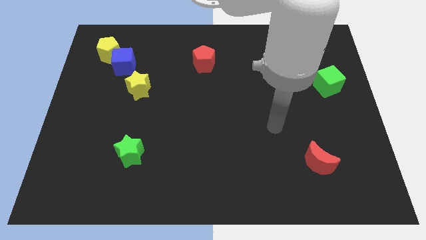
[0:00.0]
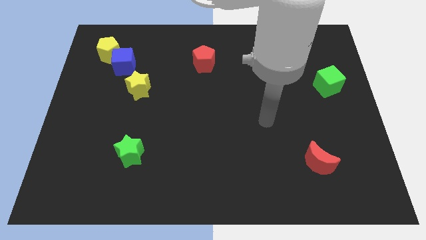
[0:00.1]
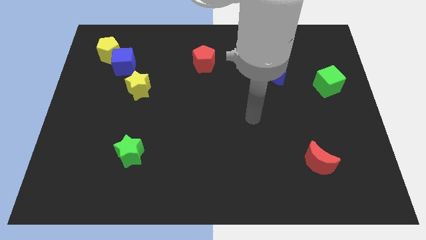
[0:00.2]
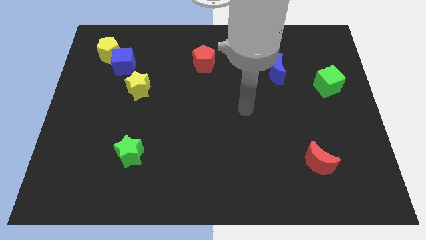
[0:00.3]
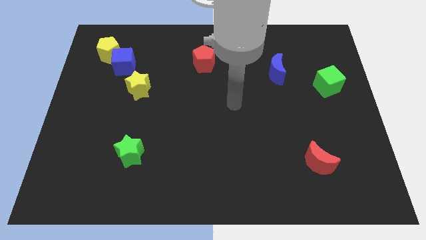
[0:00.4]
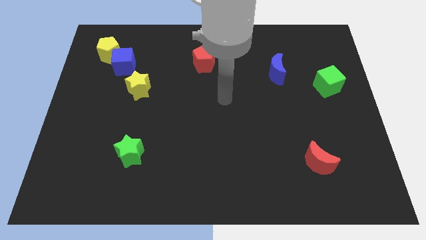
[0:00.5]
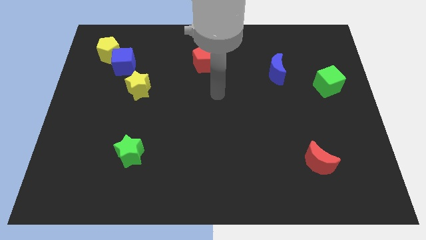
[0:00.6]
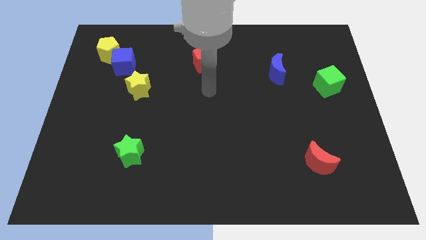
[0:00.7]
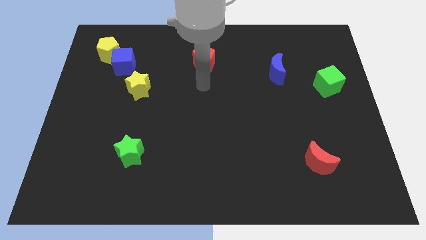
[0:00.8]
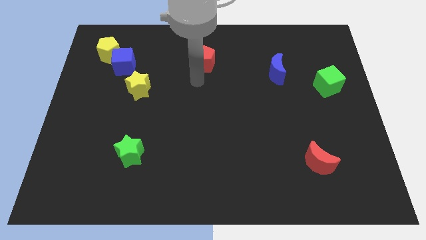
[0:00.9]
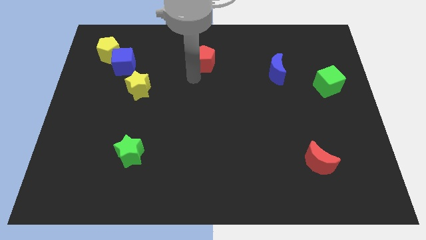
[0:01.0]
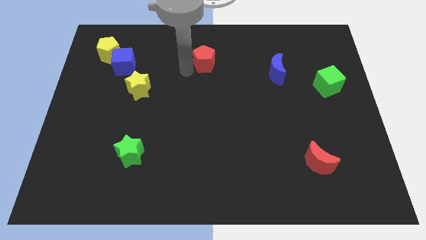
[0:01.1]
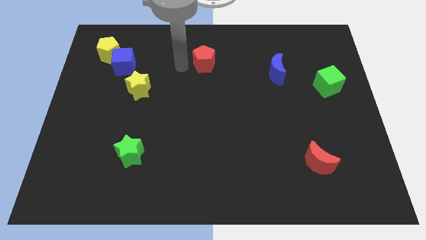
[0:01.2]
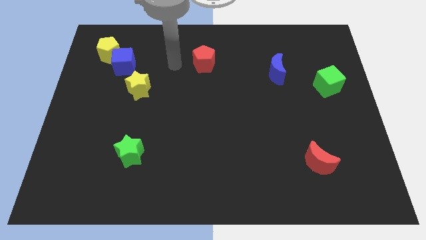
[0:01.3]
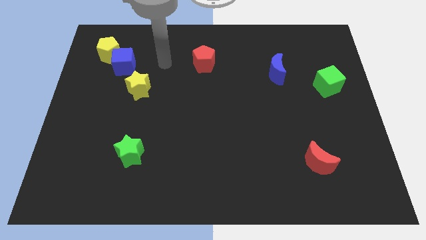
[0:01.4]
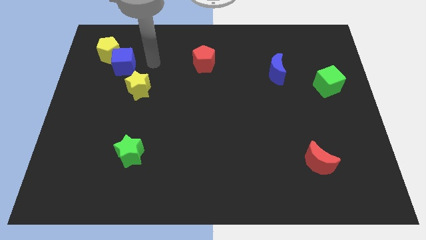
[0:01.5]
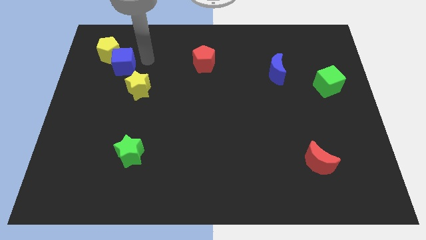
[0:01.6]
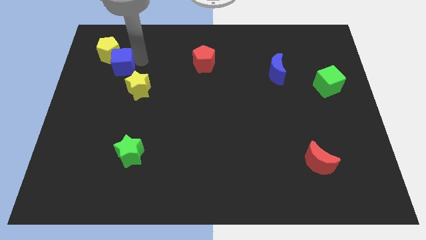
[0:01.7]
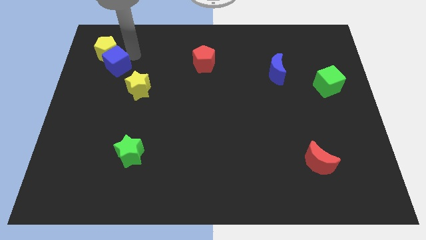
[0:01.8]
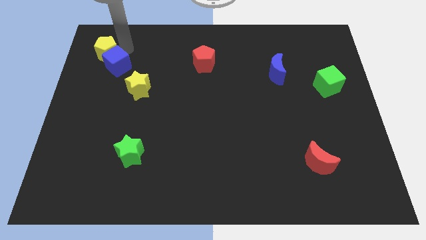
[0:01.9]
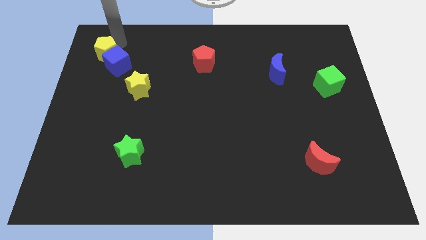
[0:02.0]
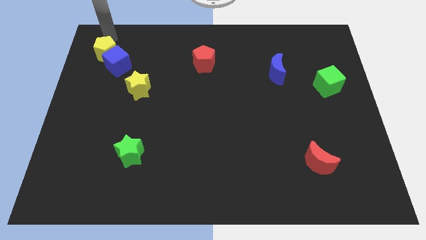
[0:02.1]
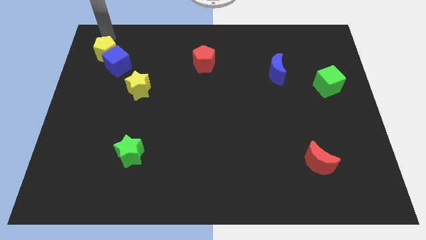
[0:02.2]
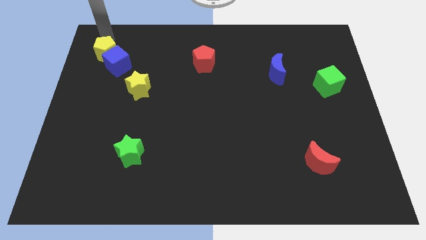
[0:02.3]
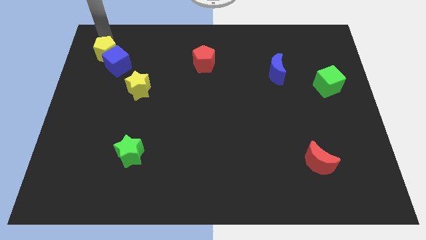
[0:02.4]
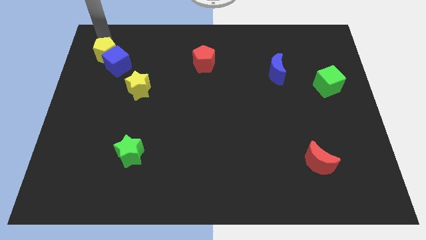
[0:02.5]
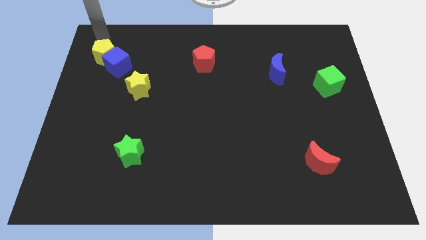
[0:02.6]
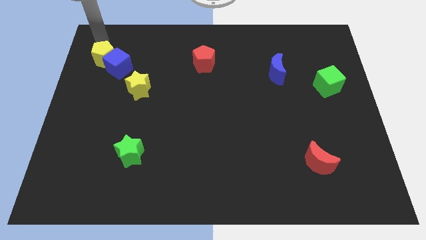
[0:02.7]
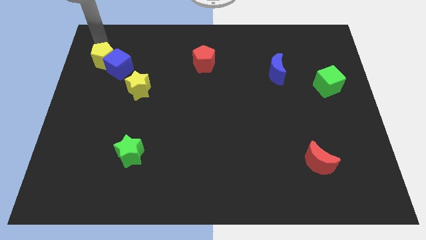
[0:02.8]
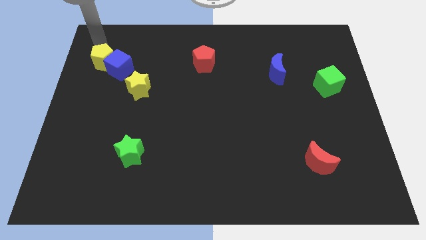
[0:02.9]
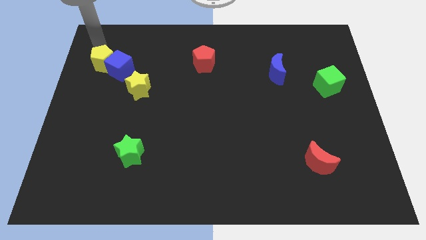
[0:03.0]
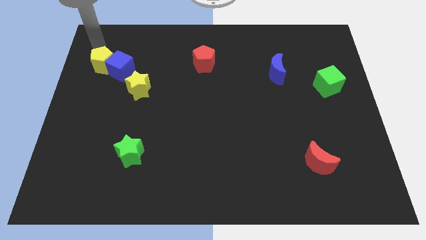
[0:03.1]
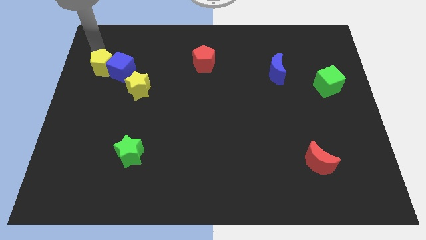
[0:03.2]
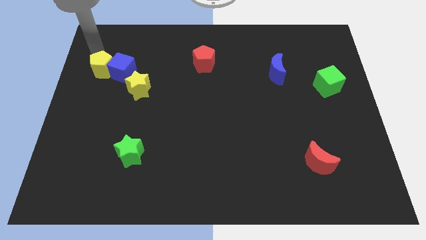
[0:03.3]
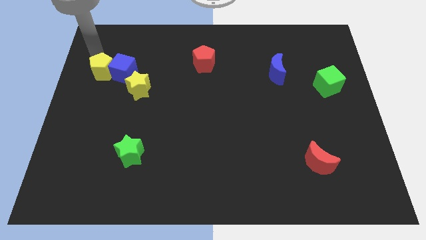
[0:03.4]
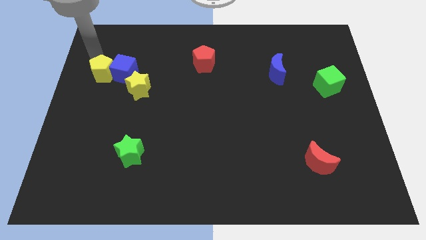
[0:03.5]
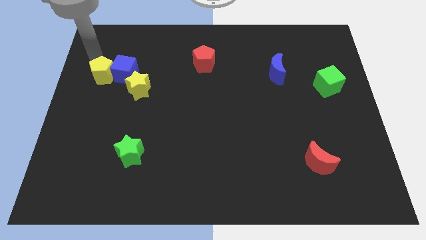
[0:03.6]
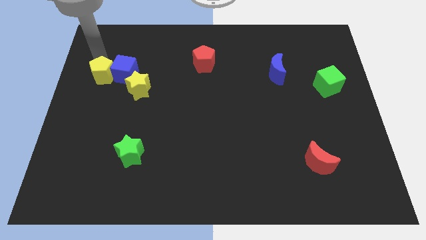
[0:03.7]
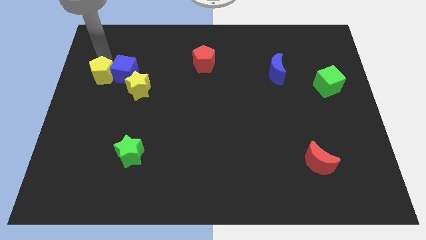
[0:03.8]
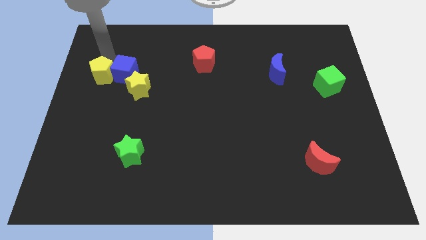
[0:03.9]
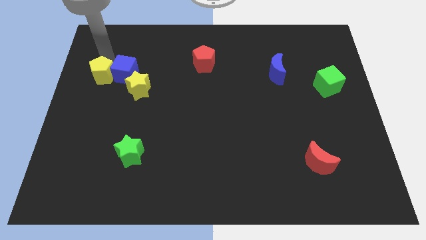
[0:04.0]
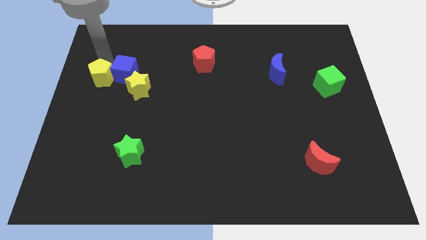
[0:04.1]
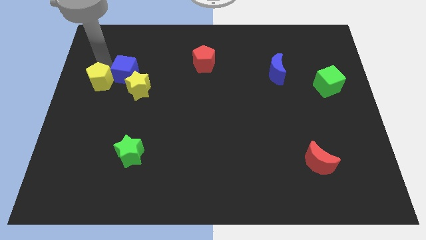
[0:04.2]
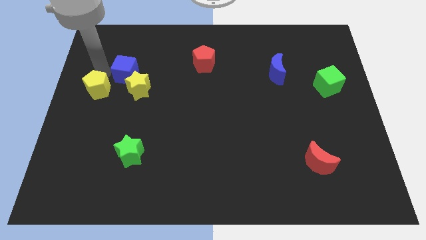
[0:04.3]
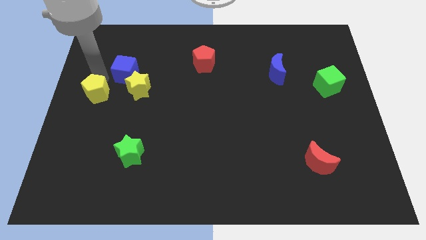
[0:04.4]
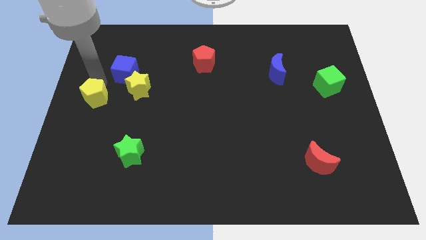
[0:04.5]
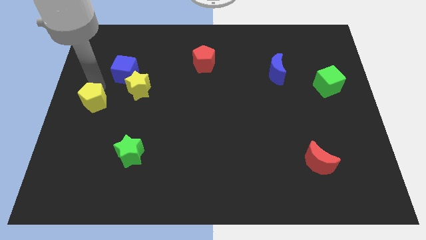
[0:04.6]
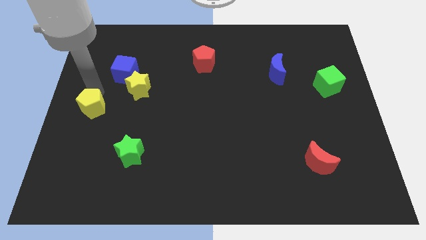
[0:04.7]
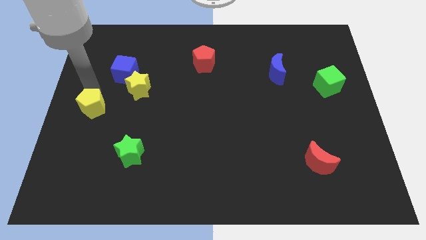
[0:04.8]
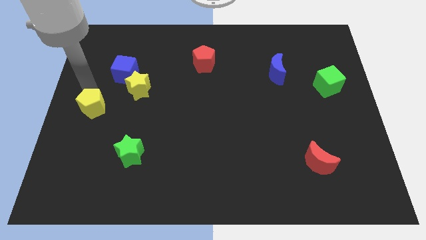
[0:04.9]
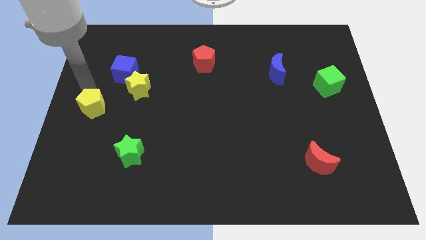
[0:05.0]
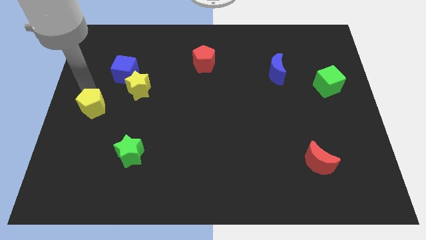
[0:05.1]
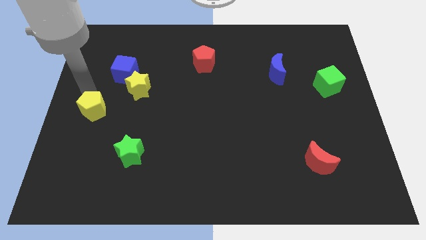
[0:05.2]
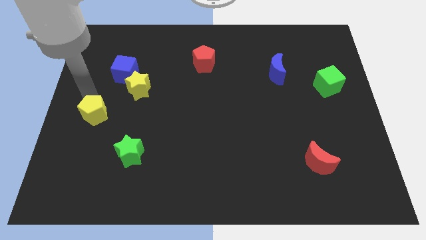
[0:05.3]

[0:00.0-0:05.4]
push the yellow pentagon downwards

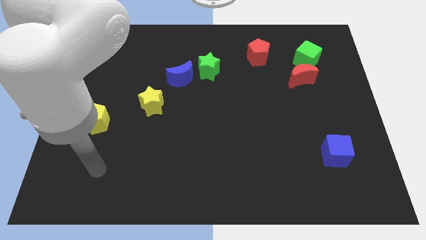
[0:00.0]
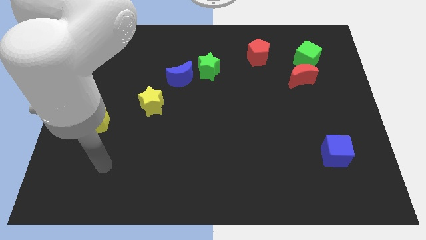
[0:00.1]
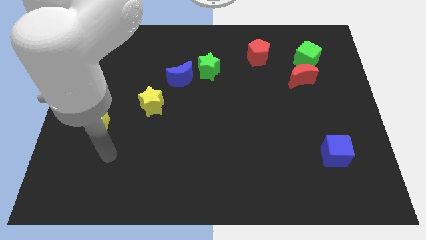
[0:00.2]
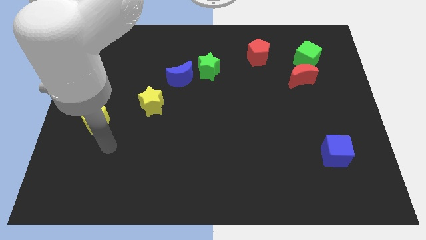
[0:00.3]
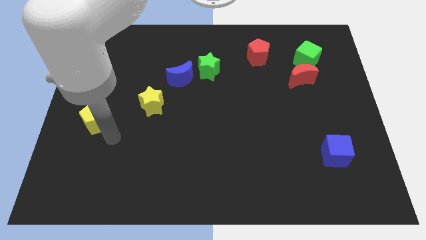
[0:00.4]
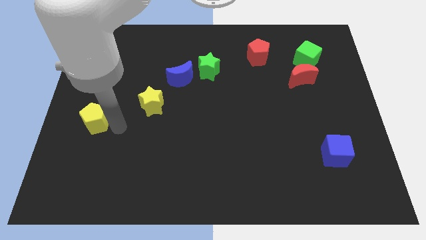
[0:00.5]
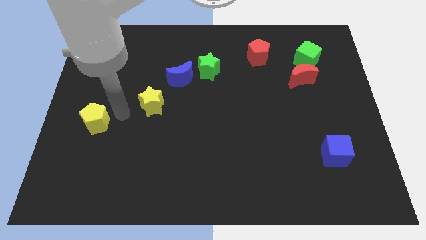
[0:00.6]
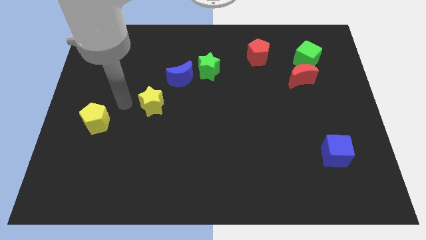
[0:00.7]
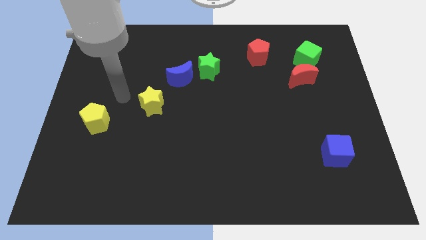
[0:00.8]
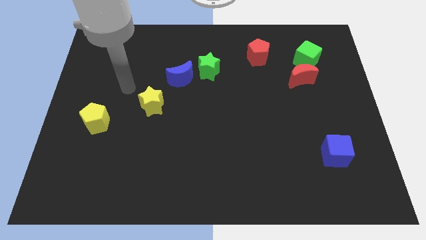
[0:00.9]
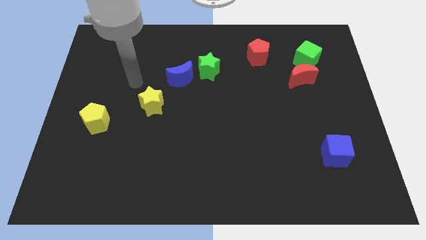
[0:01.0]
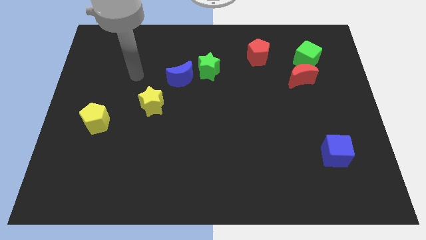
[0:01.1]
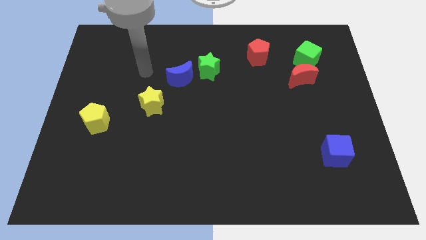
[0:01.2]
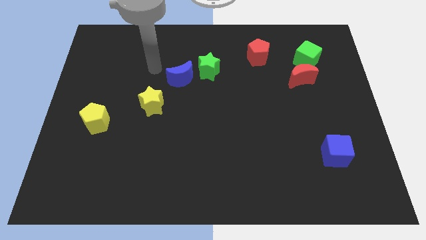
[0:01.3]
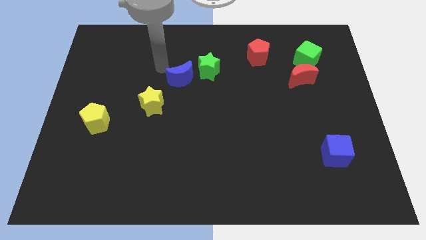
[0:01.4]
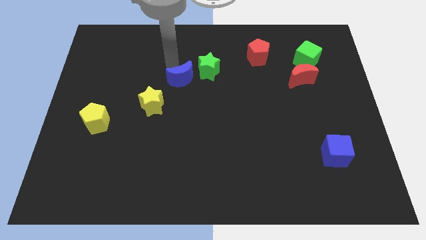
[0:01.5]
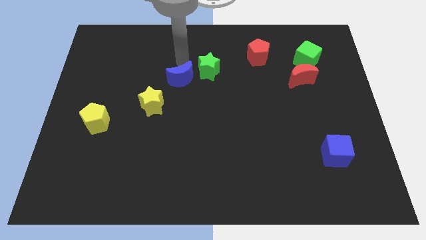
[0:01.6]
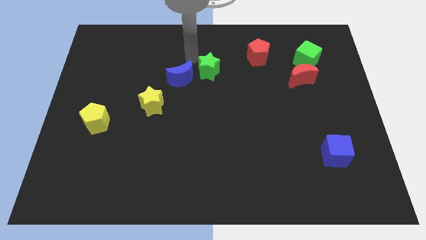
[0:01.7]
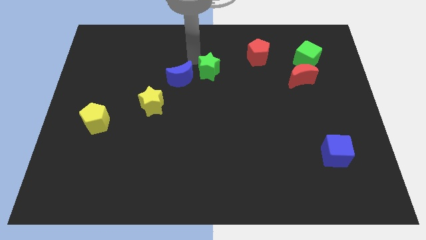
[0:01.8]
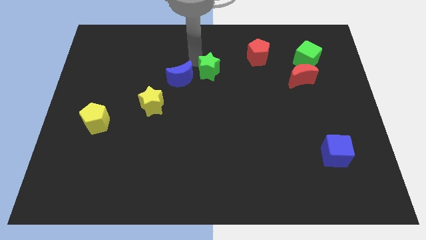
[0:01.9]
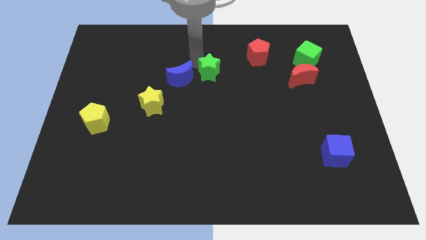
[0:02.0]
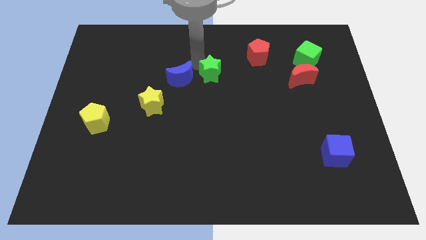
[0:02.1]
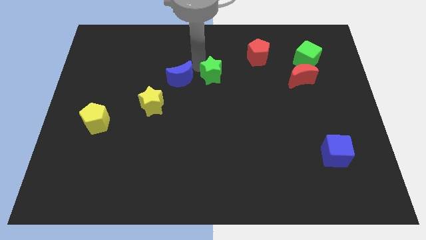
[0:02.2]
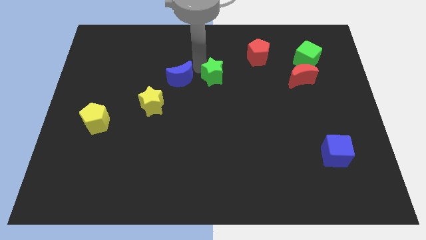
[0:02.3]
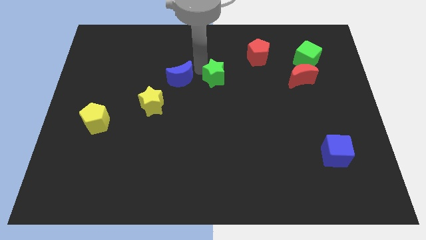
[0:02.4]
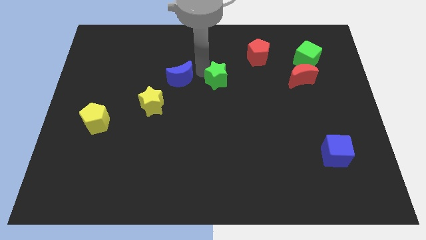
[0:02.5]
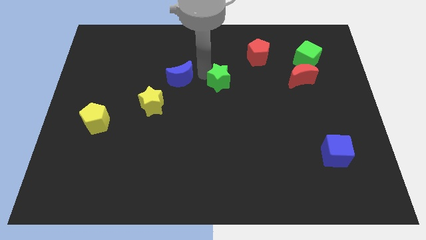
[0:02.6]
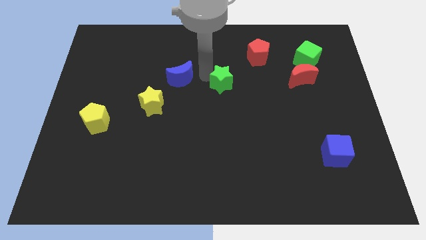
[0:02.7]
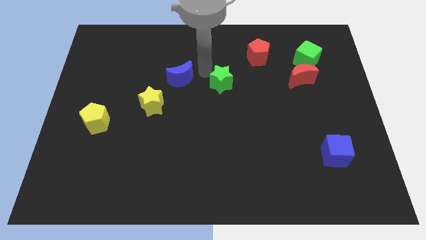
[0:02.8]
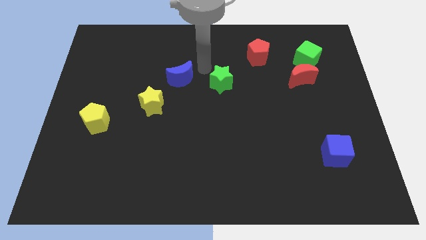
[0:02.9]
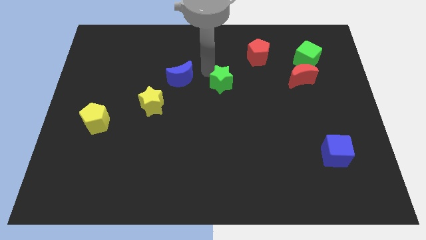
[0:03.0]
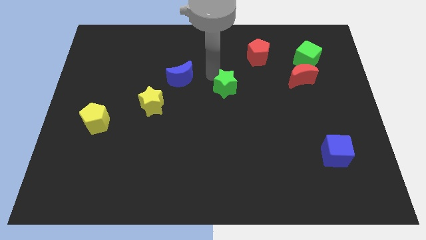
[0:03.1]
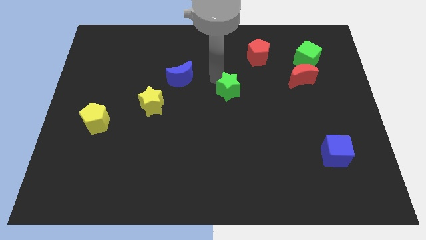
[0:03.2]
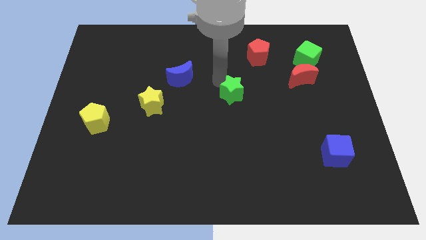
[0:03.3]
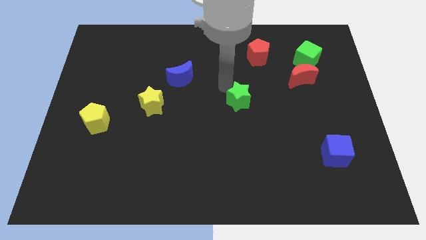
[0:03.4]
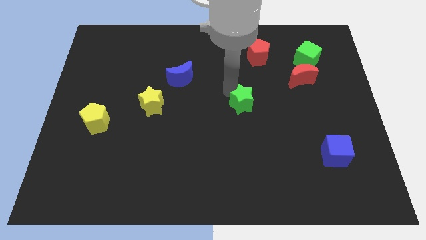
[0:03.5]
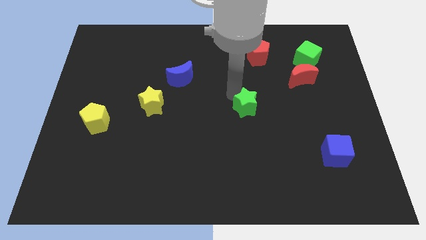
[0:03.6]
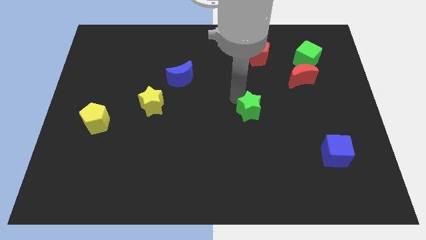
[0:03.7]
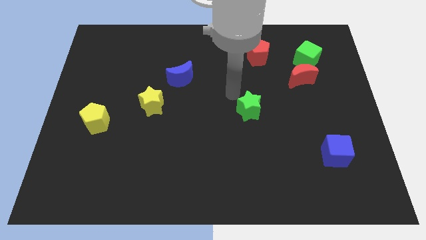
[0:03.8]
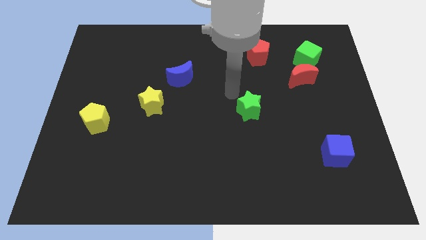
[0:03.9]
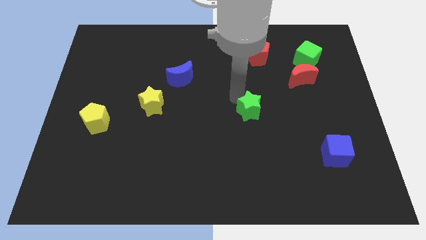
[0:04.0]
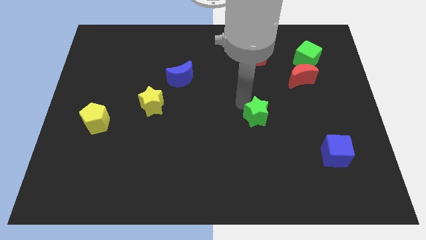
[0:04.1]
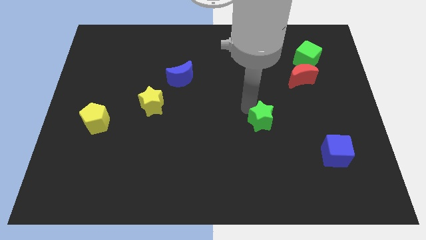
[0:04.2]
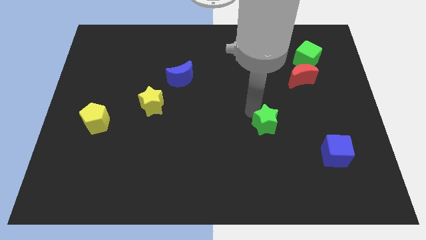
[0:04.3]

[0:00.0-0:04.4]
slide the green star down and right diagonally
